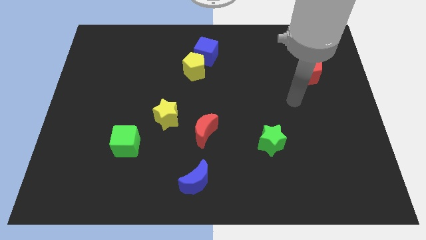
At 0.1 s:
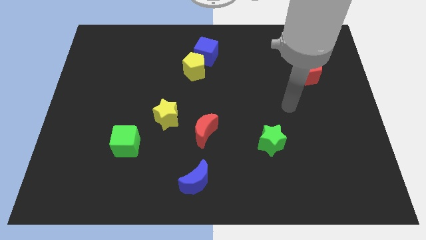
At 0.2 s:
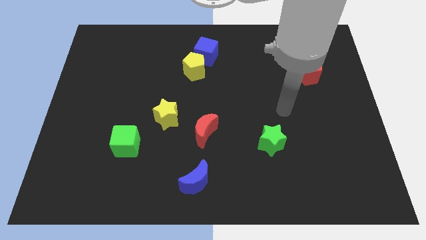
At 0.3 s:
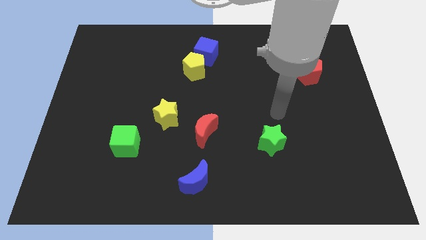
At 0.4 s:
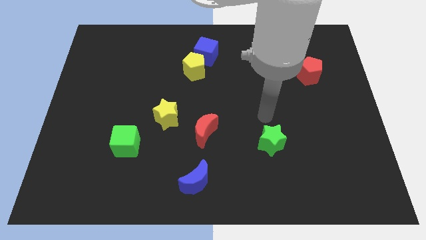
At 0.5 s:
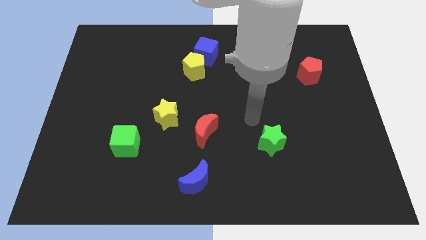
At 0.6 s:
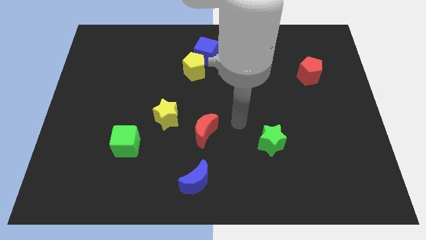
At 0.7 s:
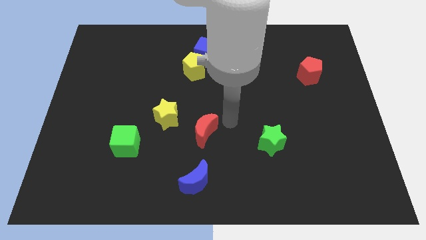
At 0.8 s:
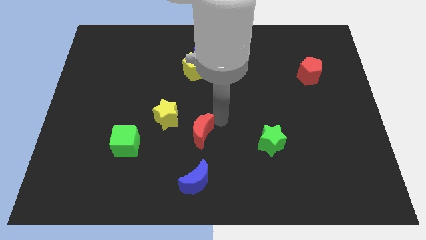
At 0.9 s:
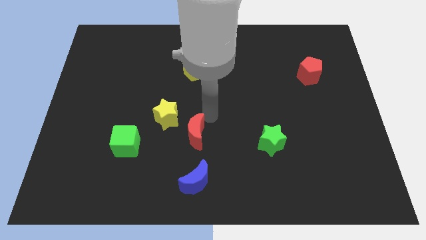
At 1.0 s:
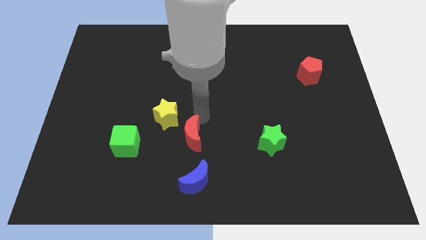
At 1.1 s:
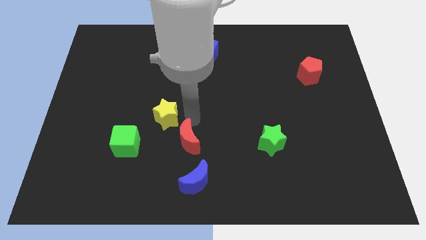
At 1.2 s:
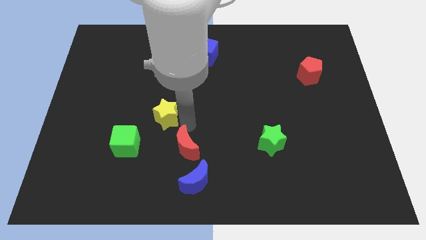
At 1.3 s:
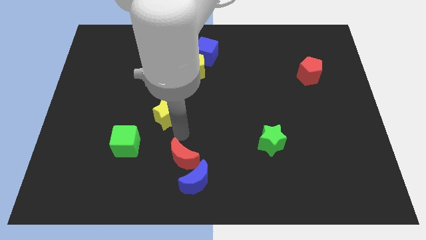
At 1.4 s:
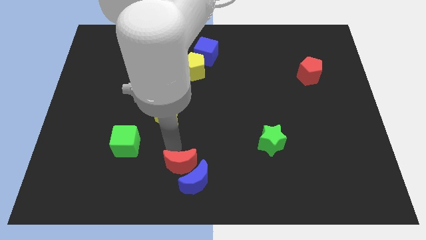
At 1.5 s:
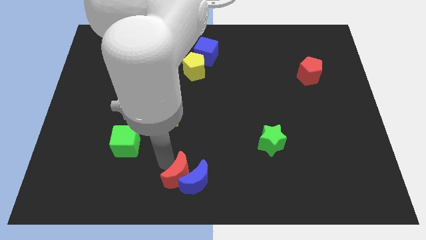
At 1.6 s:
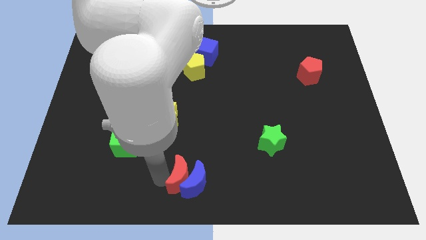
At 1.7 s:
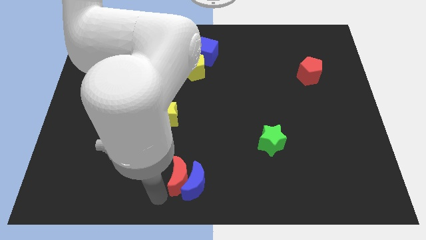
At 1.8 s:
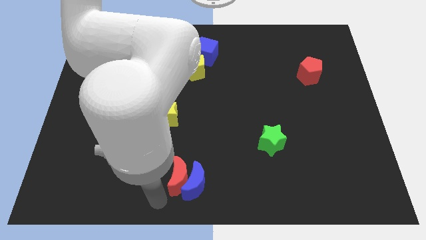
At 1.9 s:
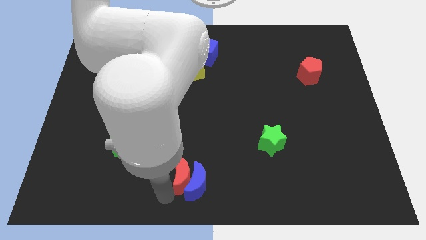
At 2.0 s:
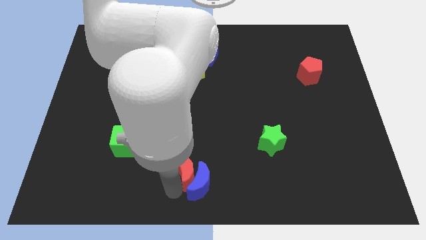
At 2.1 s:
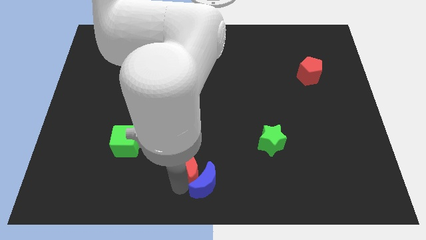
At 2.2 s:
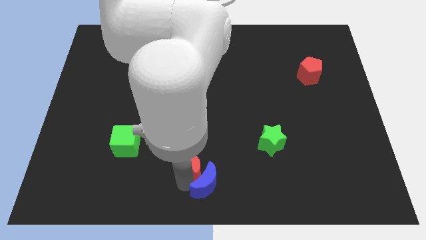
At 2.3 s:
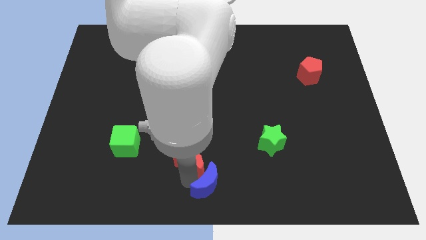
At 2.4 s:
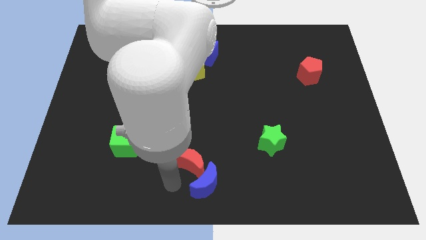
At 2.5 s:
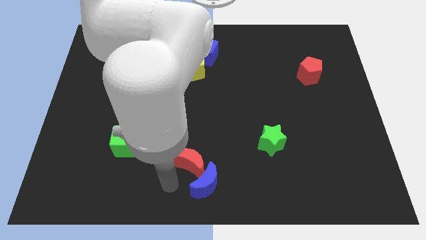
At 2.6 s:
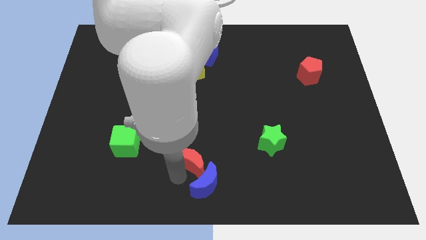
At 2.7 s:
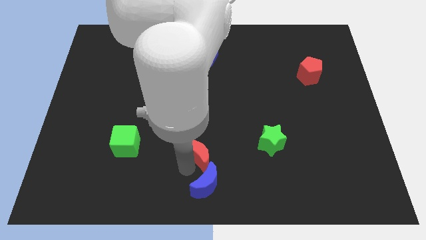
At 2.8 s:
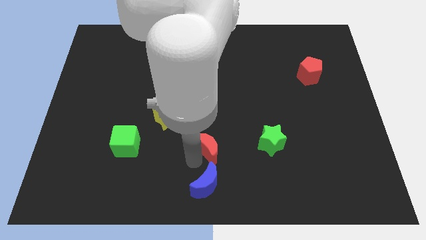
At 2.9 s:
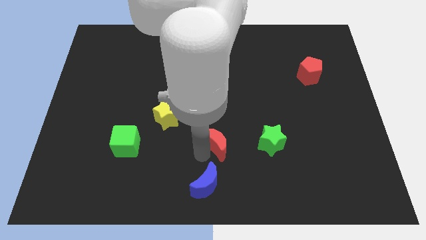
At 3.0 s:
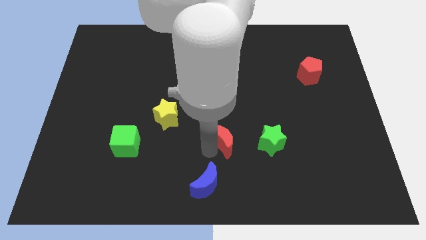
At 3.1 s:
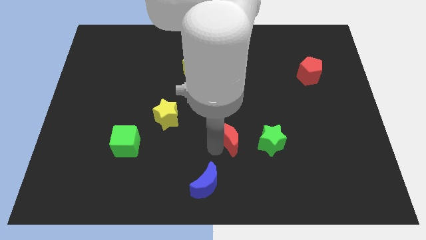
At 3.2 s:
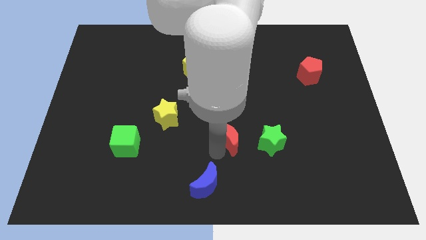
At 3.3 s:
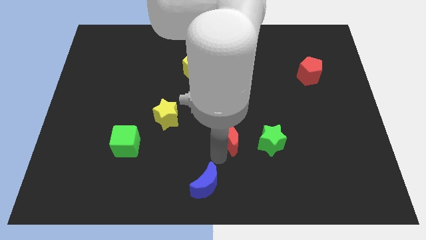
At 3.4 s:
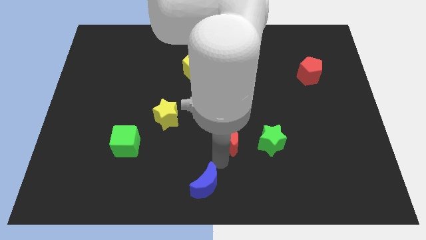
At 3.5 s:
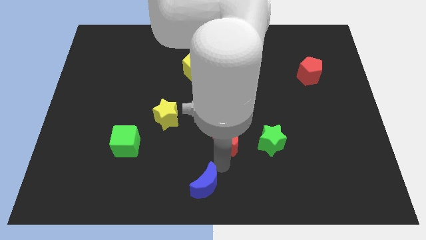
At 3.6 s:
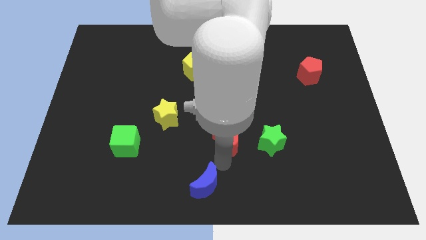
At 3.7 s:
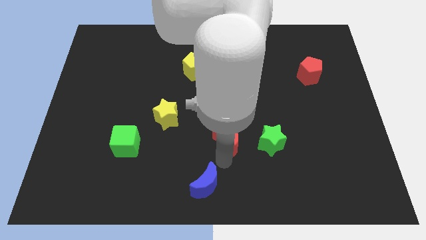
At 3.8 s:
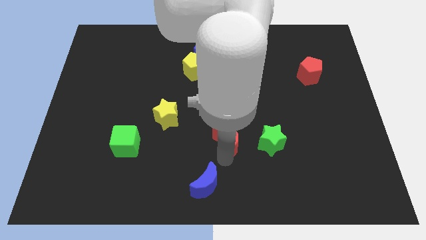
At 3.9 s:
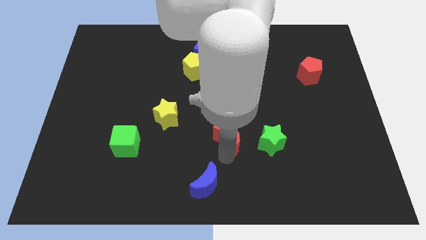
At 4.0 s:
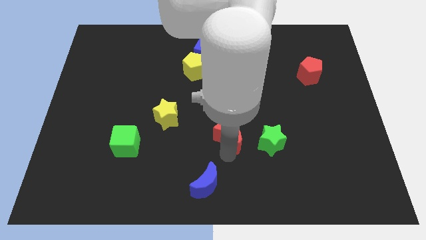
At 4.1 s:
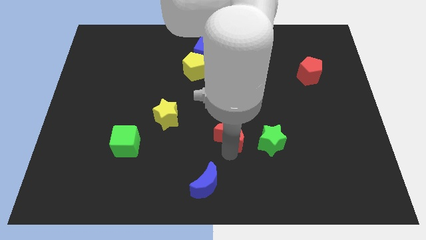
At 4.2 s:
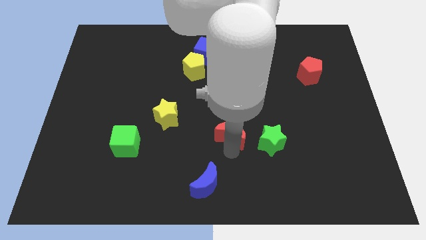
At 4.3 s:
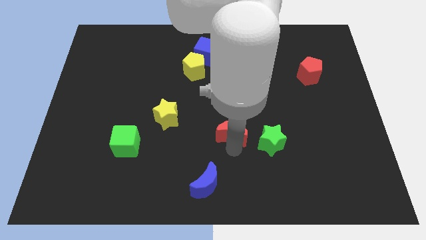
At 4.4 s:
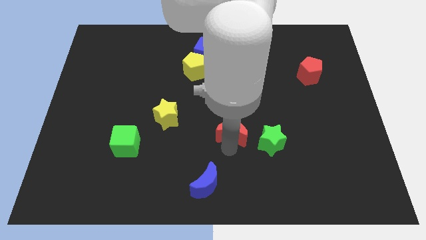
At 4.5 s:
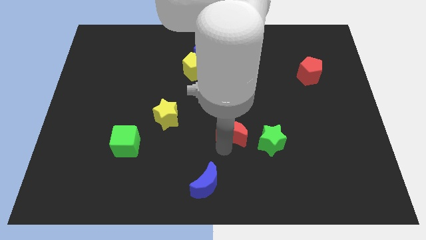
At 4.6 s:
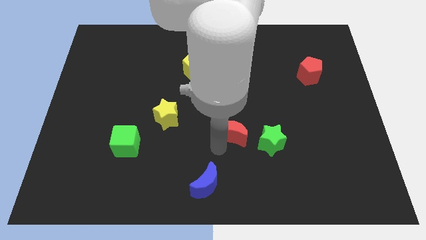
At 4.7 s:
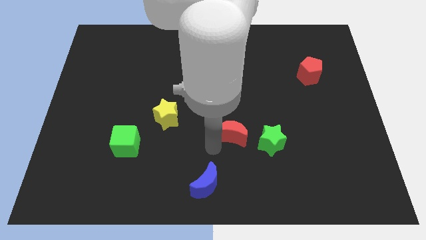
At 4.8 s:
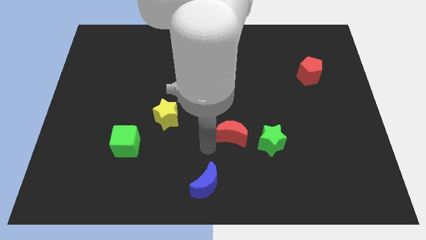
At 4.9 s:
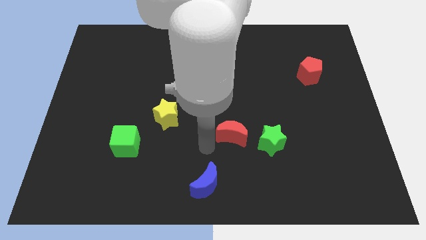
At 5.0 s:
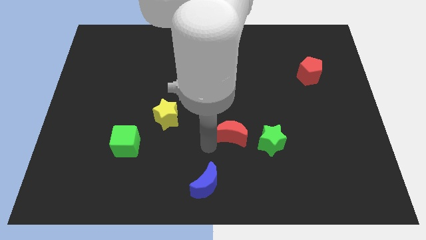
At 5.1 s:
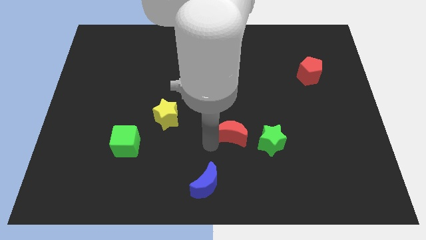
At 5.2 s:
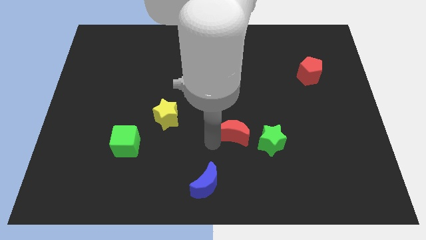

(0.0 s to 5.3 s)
slightly push the red moon to the right

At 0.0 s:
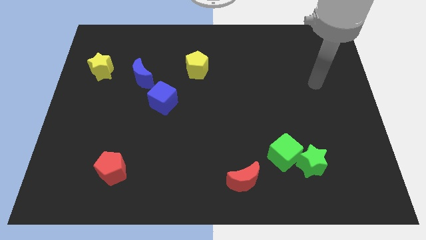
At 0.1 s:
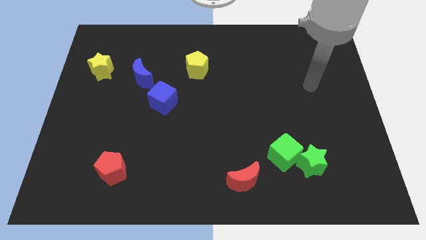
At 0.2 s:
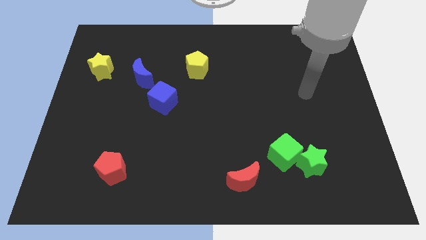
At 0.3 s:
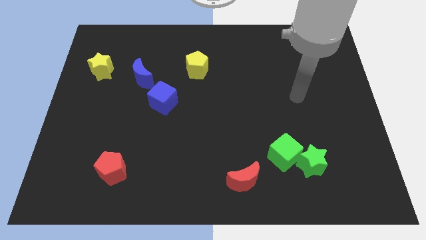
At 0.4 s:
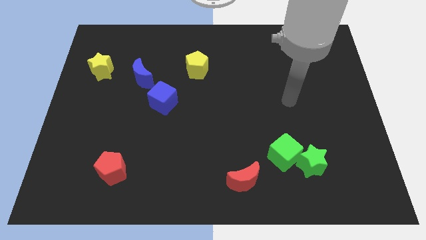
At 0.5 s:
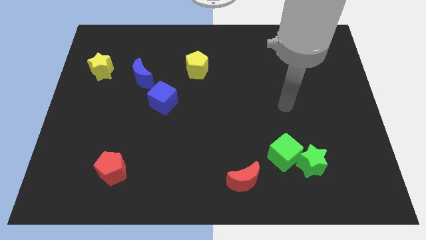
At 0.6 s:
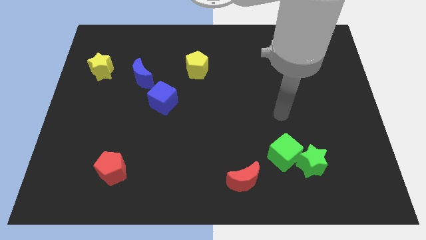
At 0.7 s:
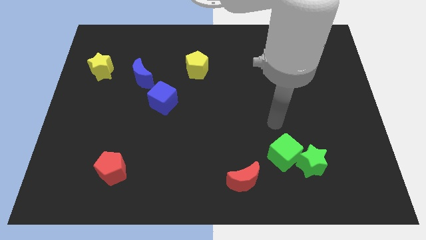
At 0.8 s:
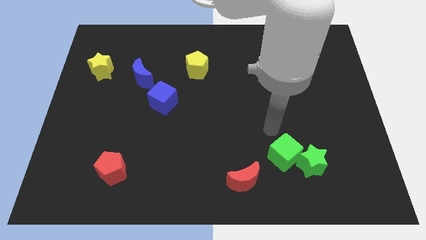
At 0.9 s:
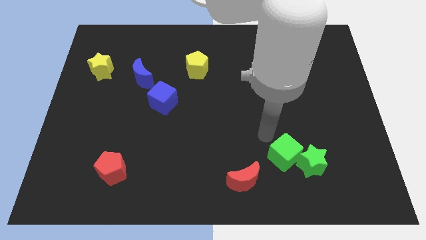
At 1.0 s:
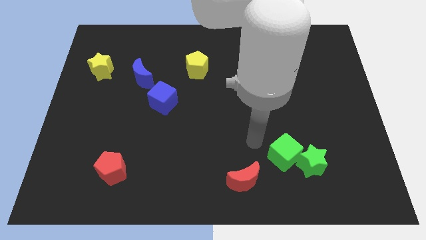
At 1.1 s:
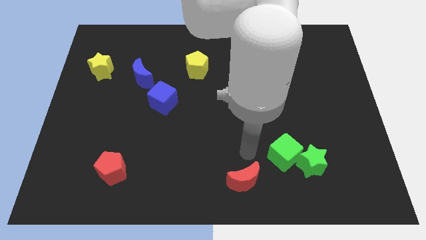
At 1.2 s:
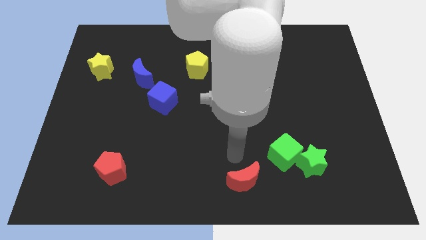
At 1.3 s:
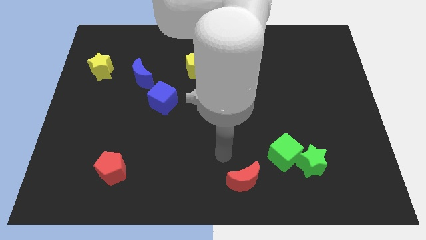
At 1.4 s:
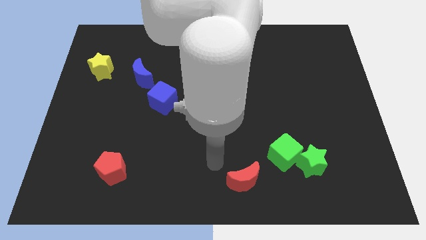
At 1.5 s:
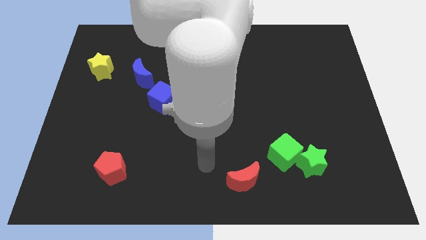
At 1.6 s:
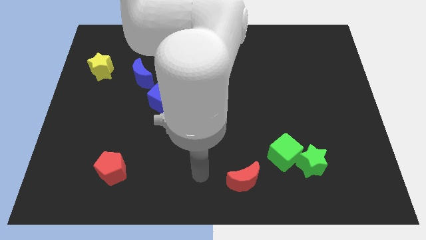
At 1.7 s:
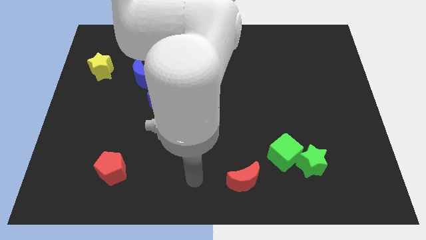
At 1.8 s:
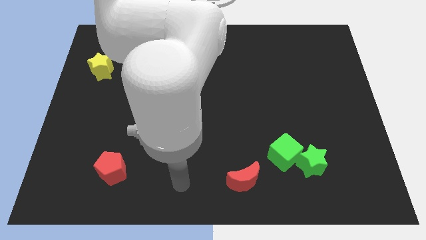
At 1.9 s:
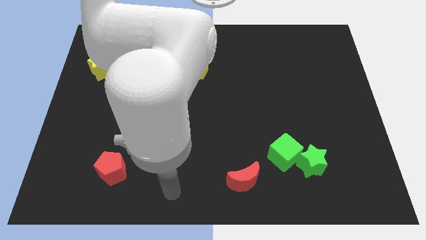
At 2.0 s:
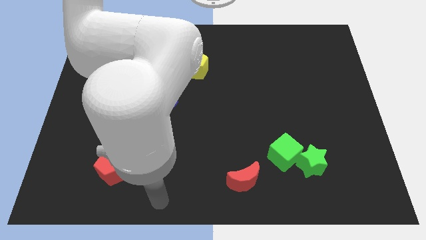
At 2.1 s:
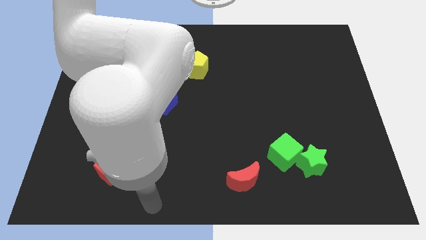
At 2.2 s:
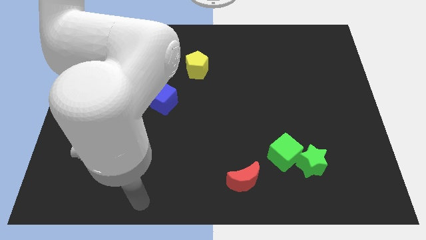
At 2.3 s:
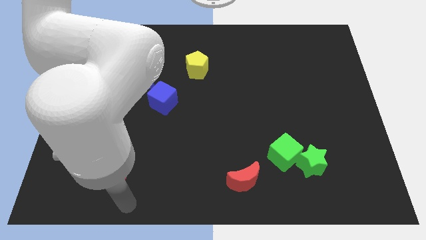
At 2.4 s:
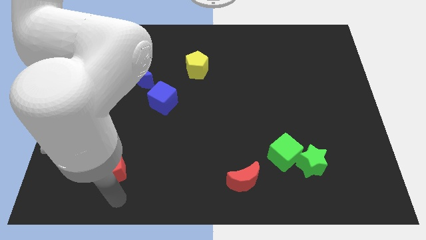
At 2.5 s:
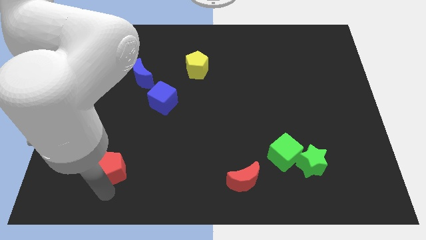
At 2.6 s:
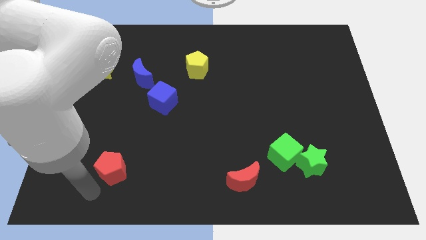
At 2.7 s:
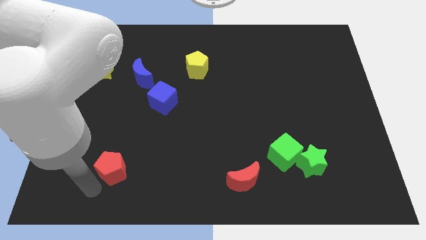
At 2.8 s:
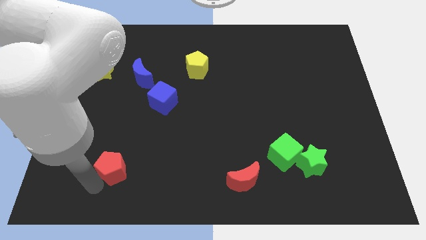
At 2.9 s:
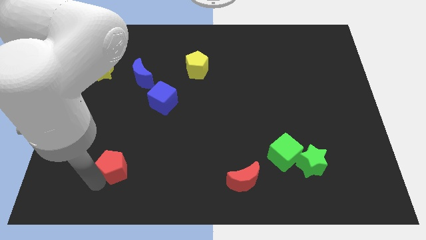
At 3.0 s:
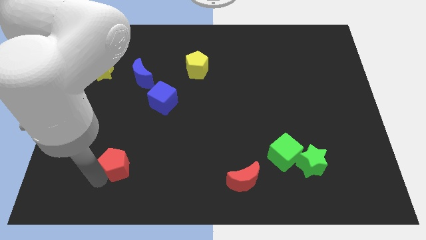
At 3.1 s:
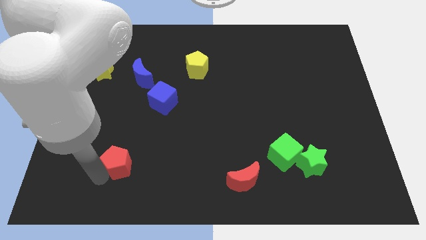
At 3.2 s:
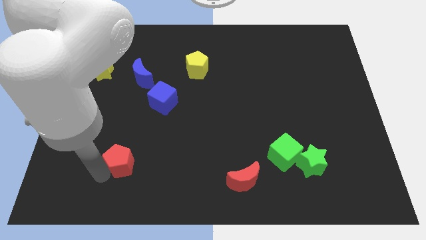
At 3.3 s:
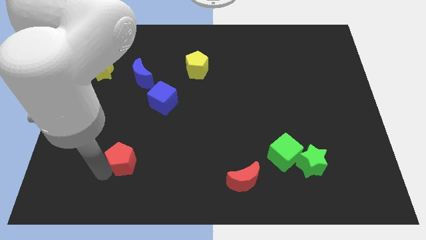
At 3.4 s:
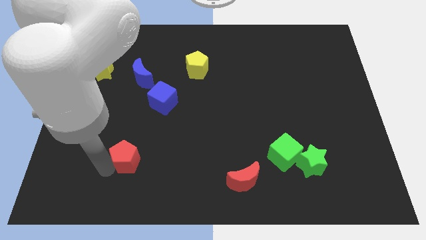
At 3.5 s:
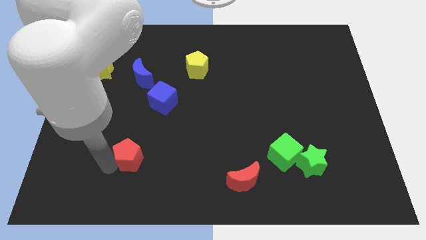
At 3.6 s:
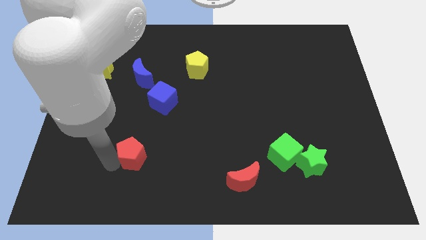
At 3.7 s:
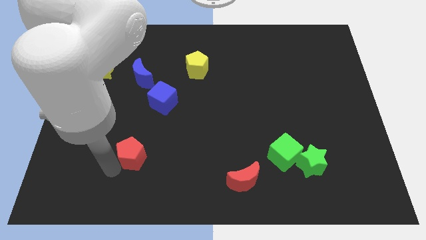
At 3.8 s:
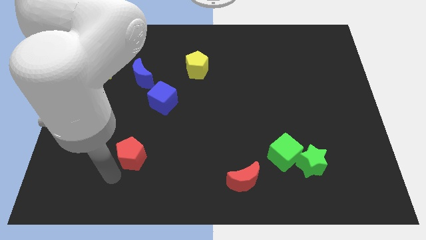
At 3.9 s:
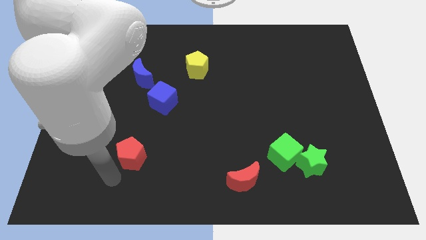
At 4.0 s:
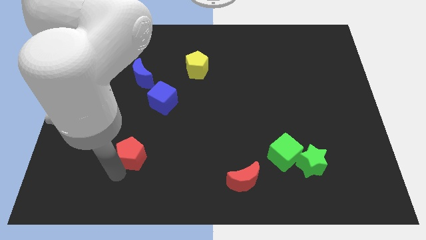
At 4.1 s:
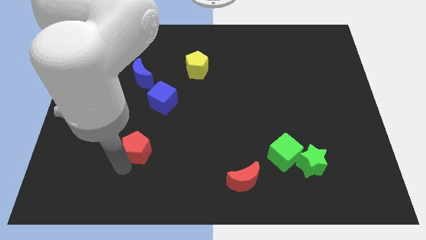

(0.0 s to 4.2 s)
slightly push the red pentagon diagonally upwards and right
